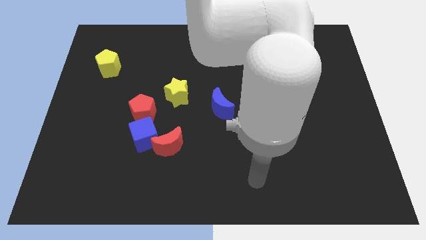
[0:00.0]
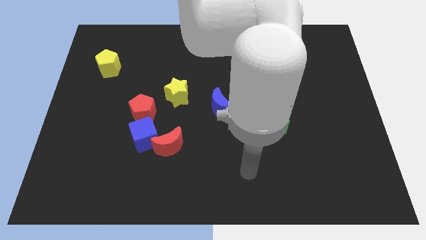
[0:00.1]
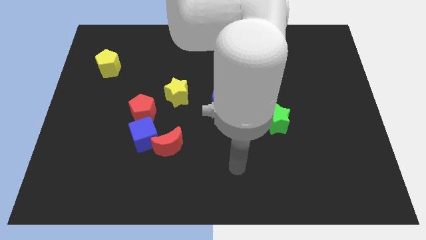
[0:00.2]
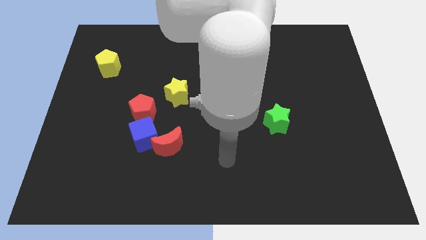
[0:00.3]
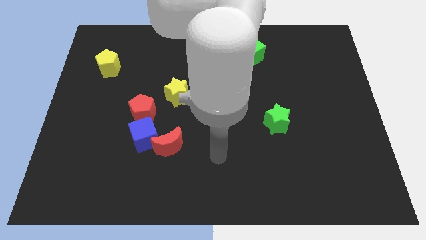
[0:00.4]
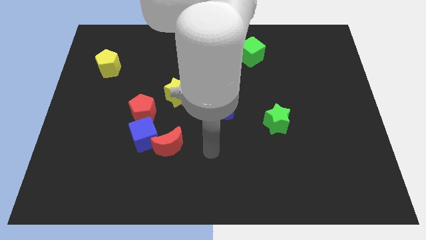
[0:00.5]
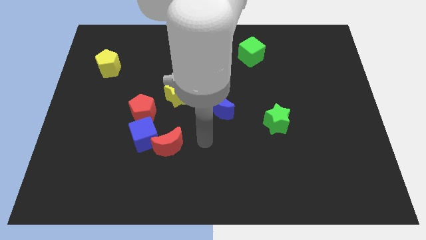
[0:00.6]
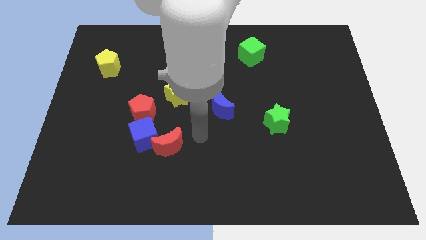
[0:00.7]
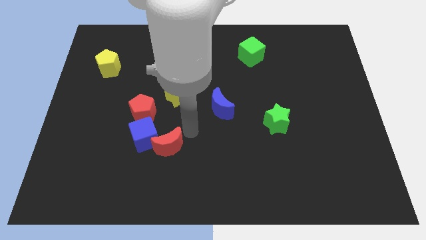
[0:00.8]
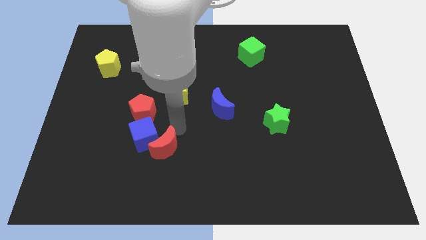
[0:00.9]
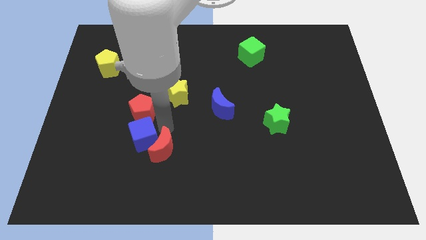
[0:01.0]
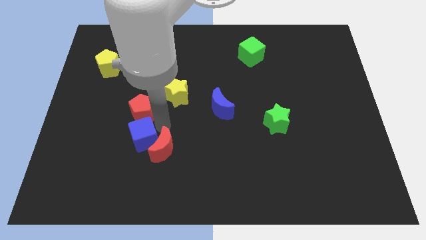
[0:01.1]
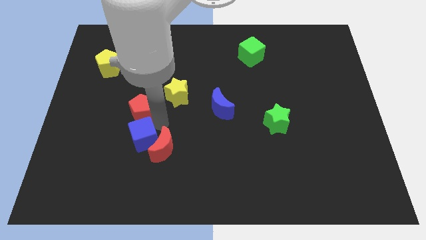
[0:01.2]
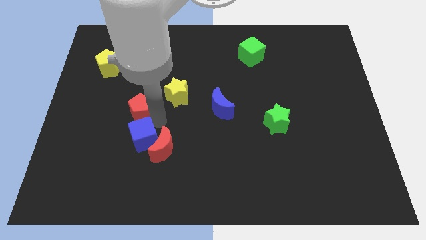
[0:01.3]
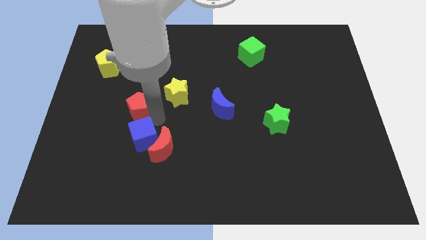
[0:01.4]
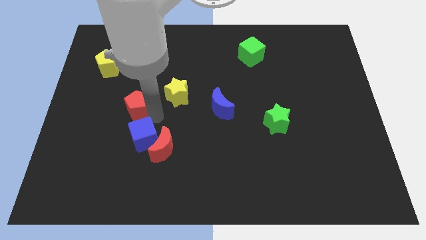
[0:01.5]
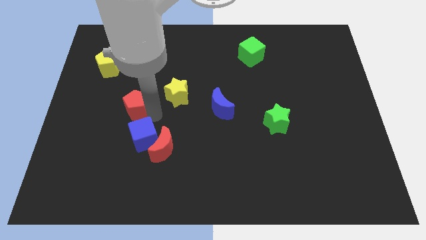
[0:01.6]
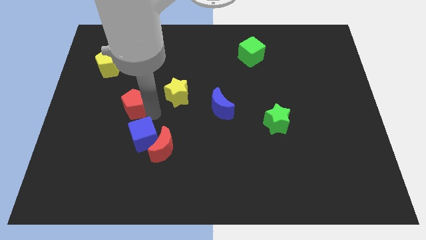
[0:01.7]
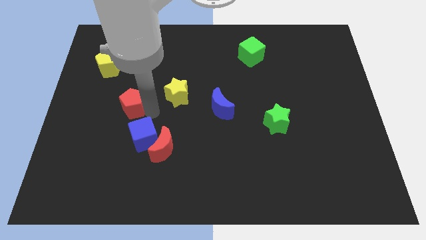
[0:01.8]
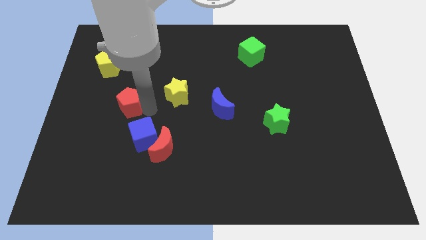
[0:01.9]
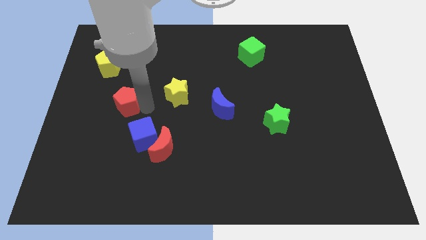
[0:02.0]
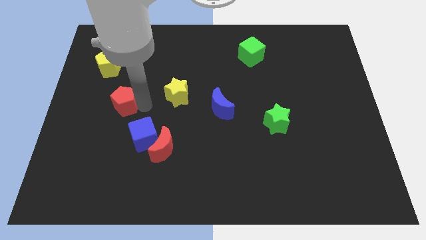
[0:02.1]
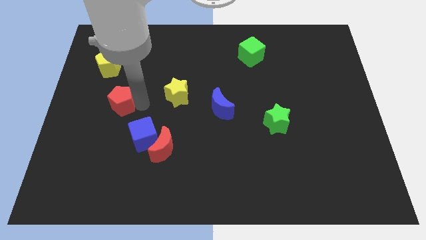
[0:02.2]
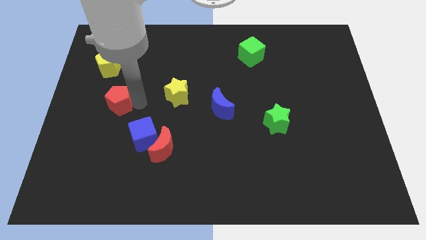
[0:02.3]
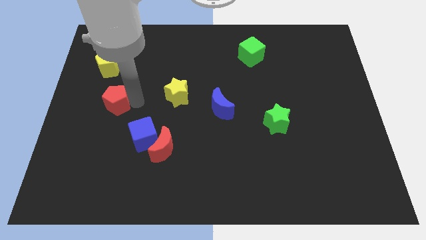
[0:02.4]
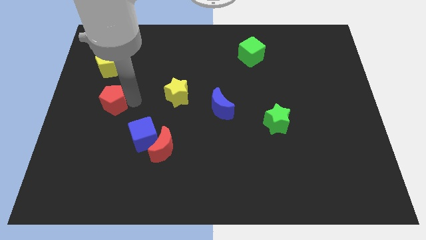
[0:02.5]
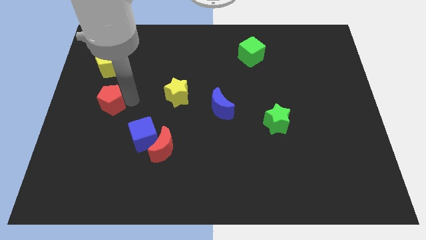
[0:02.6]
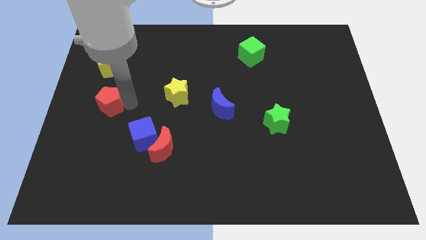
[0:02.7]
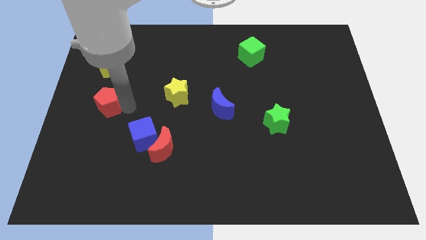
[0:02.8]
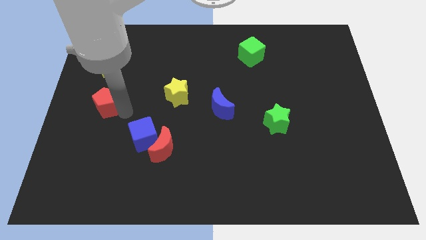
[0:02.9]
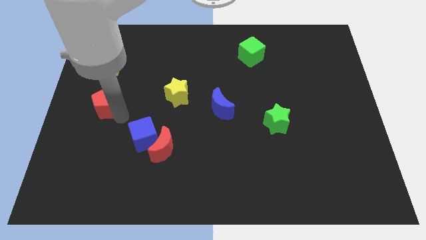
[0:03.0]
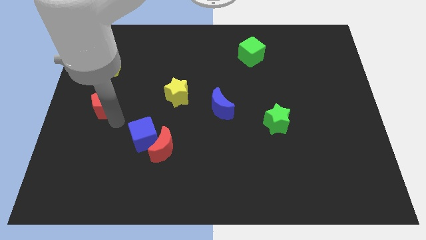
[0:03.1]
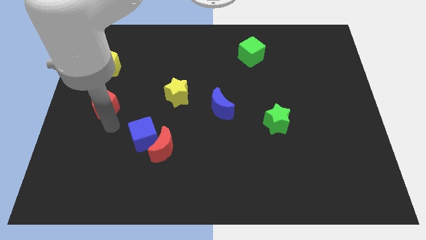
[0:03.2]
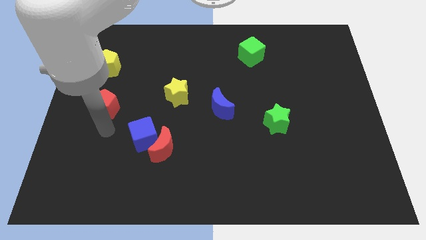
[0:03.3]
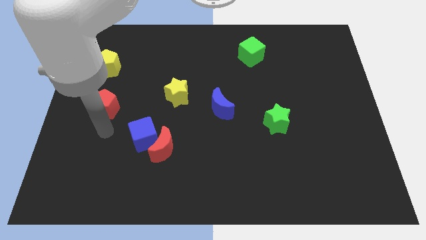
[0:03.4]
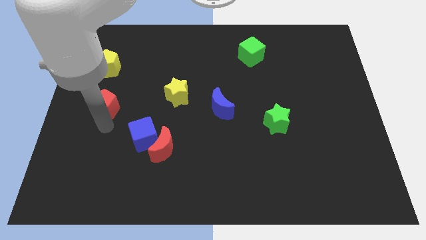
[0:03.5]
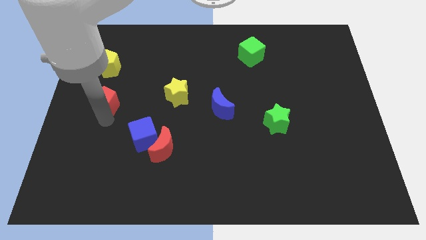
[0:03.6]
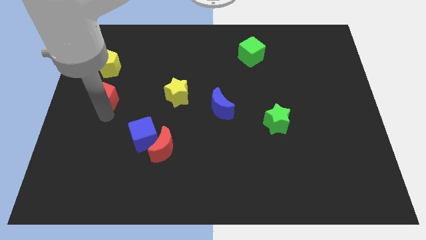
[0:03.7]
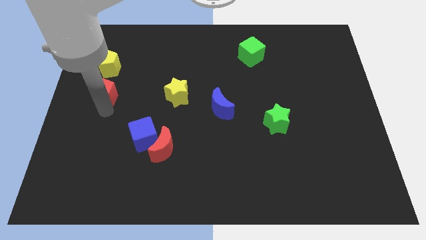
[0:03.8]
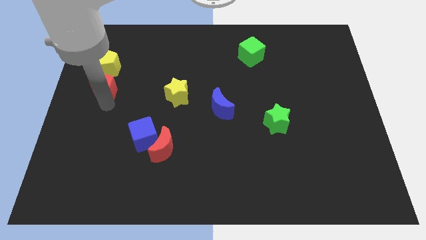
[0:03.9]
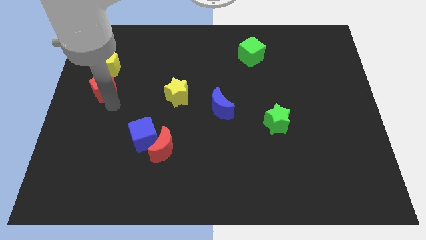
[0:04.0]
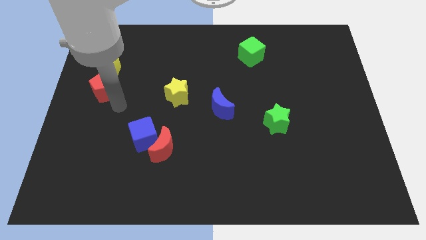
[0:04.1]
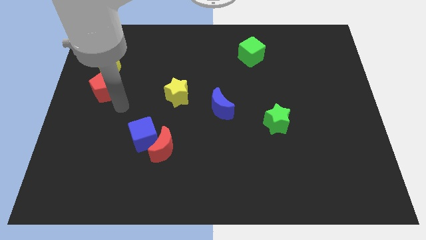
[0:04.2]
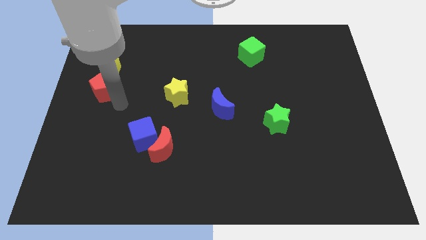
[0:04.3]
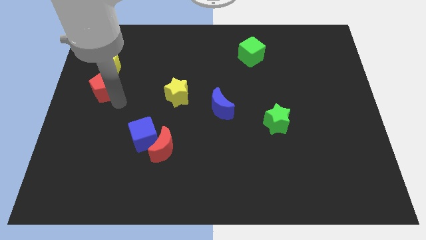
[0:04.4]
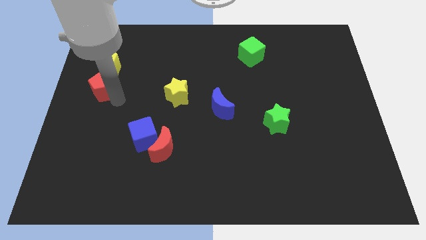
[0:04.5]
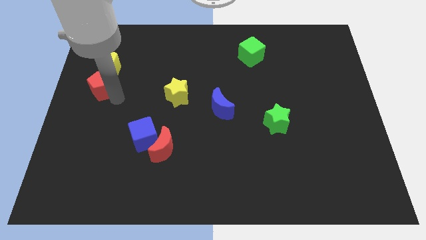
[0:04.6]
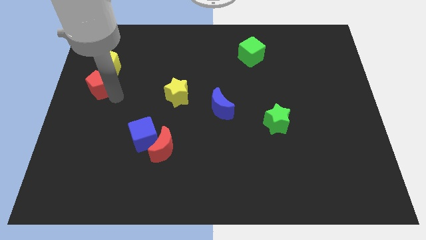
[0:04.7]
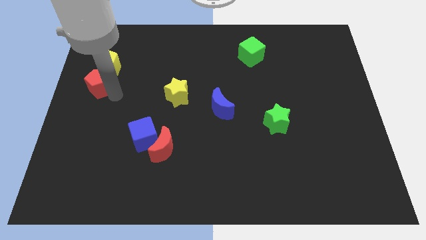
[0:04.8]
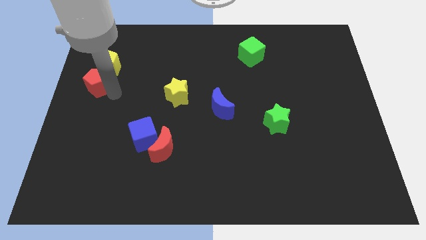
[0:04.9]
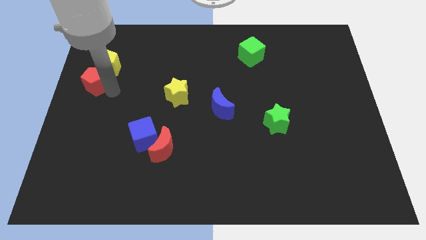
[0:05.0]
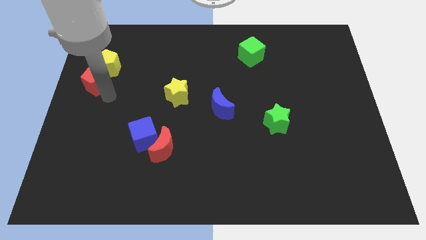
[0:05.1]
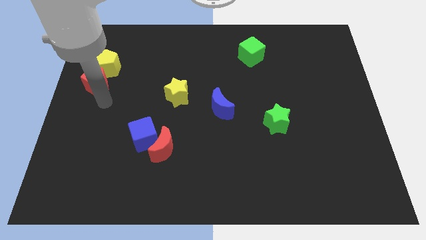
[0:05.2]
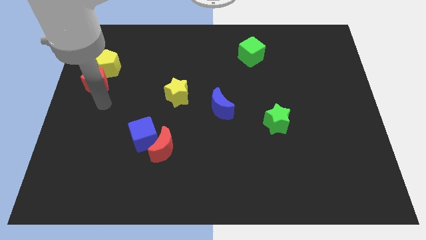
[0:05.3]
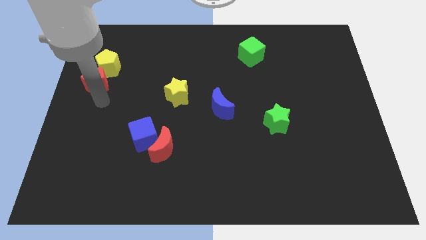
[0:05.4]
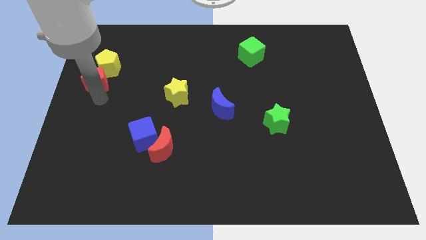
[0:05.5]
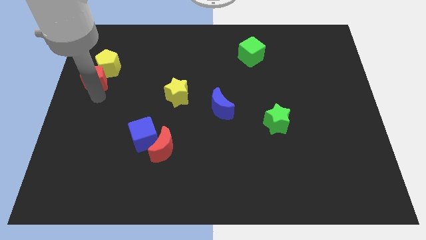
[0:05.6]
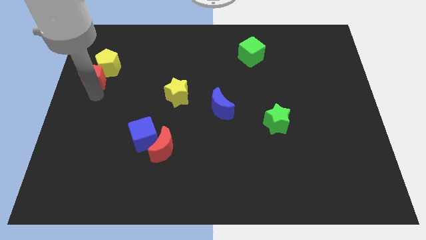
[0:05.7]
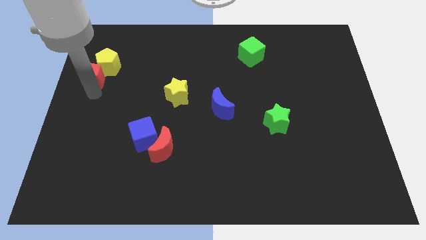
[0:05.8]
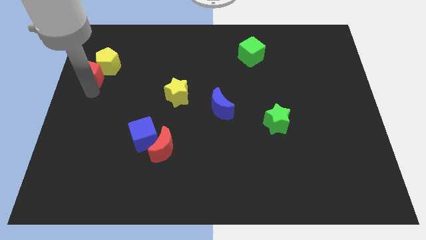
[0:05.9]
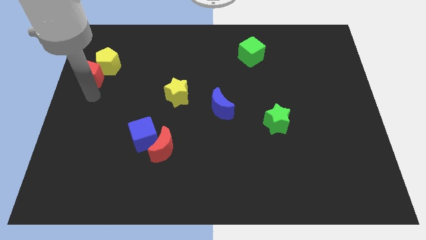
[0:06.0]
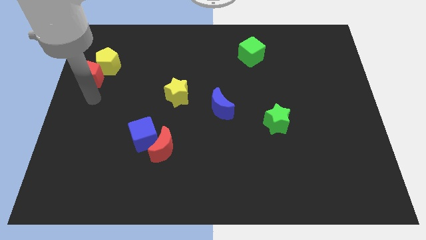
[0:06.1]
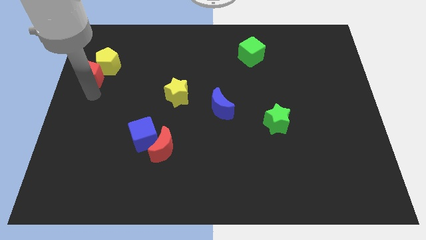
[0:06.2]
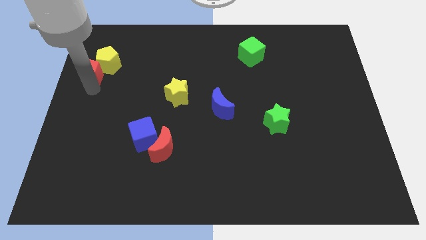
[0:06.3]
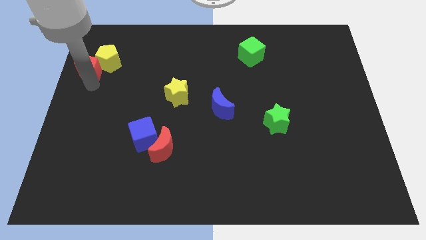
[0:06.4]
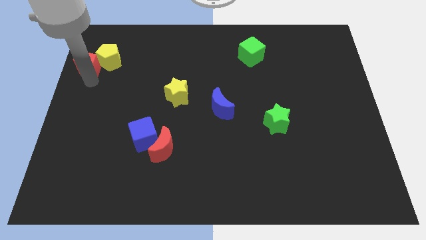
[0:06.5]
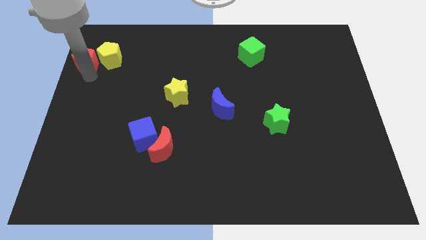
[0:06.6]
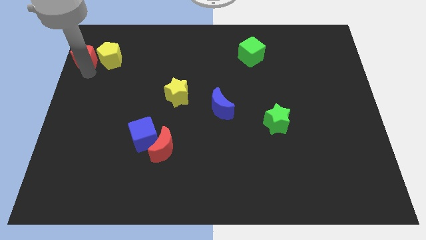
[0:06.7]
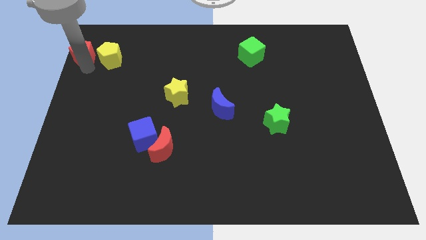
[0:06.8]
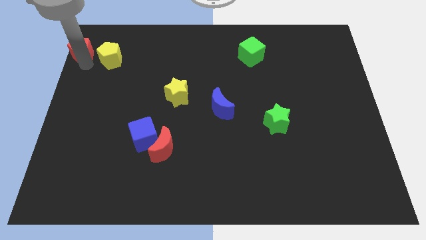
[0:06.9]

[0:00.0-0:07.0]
move the red pentagon to the top left of the board
